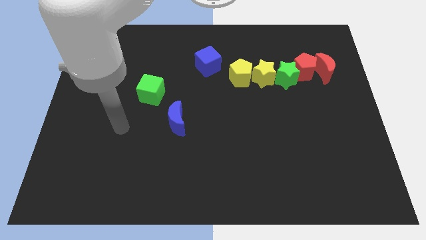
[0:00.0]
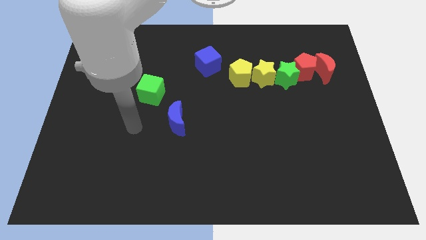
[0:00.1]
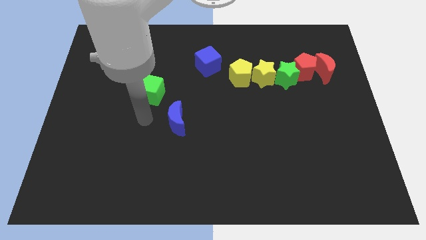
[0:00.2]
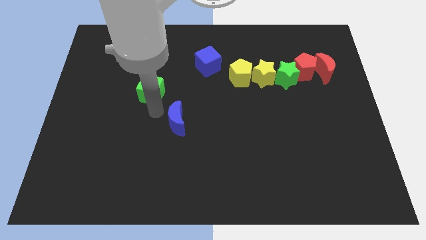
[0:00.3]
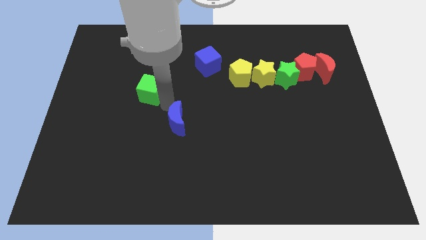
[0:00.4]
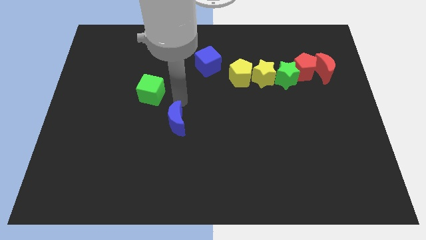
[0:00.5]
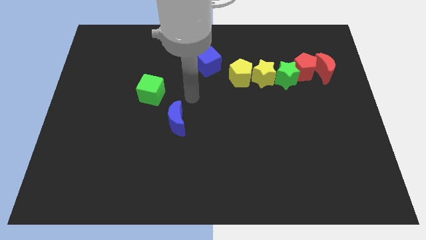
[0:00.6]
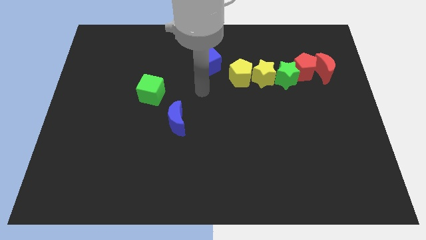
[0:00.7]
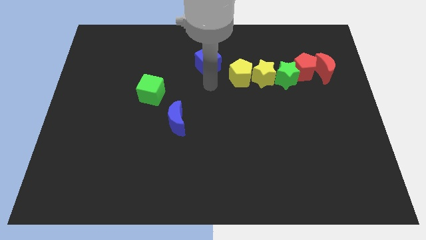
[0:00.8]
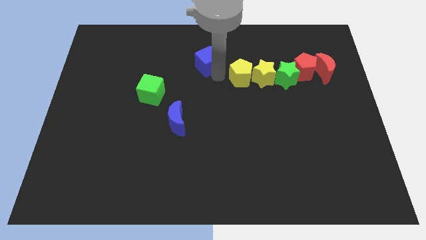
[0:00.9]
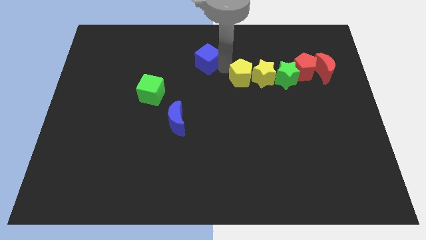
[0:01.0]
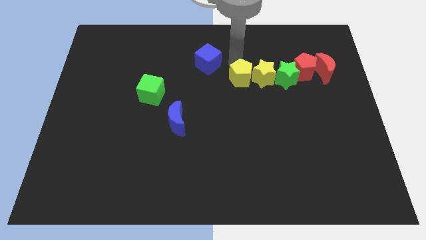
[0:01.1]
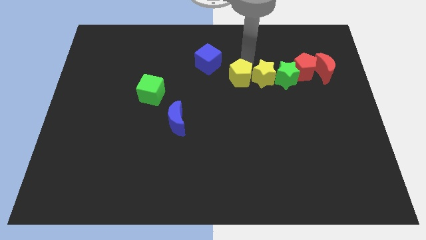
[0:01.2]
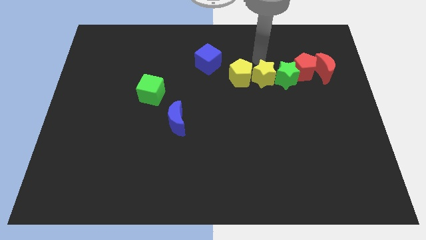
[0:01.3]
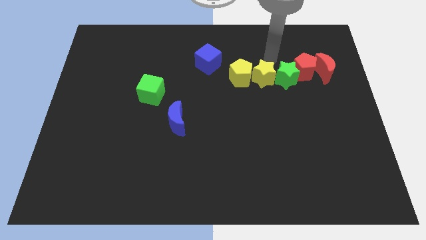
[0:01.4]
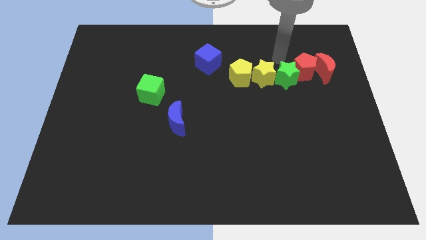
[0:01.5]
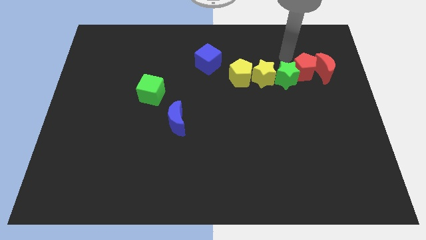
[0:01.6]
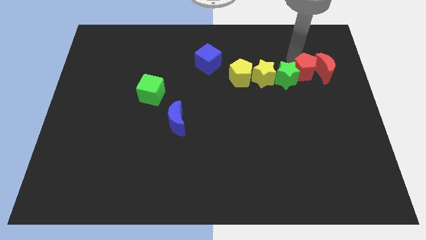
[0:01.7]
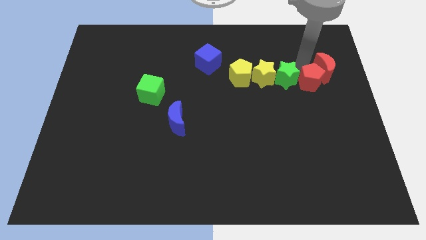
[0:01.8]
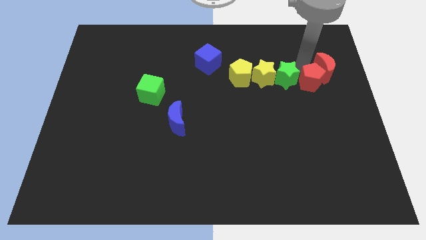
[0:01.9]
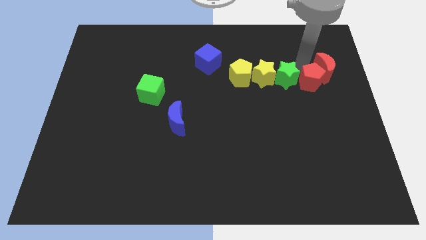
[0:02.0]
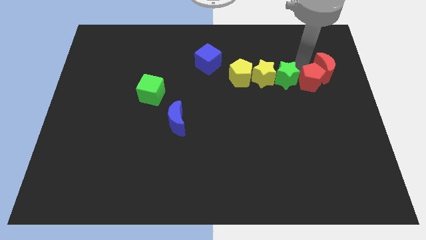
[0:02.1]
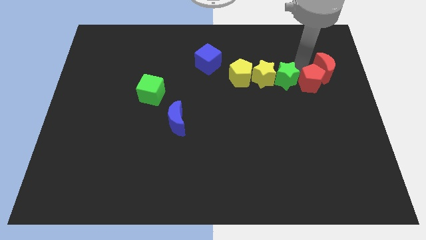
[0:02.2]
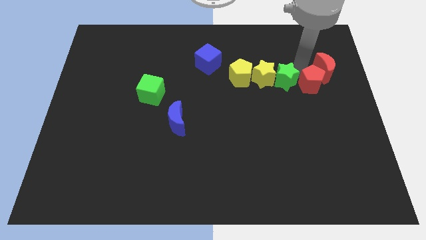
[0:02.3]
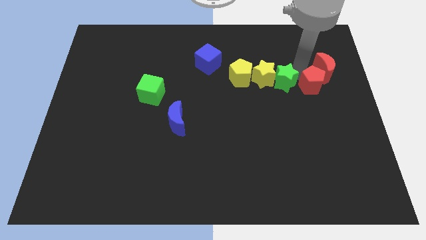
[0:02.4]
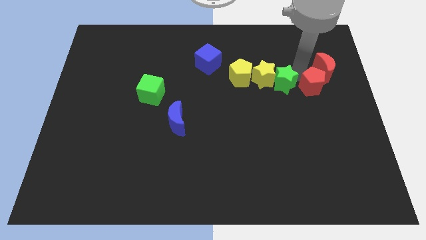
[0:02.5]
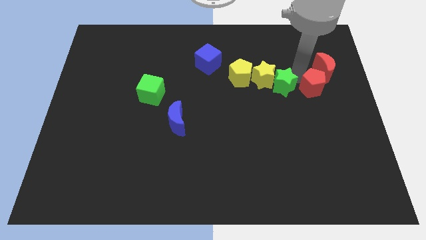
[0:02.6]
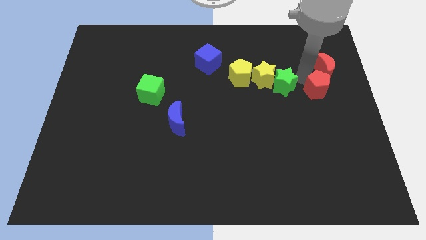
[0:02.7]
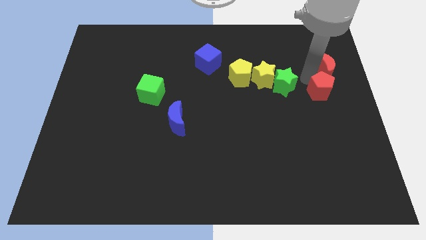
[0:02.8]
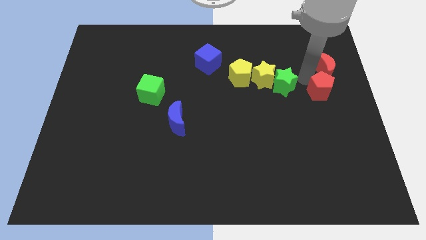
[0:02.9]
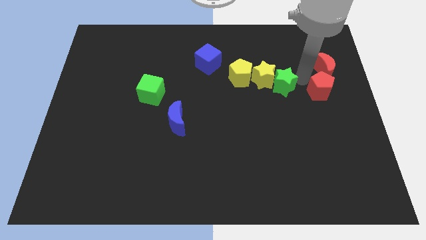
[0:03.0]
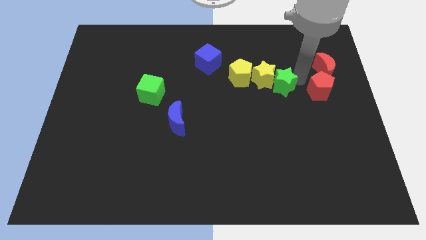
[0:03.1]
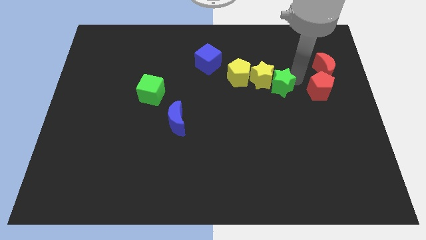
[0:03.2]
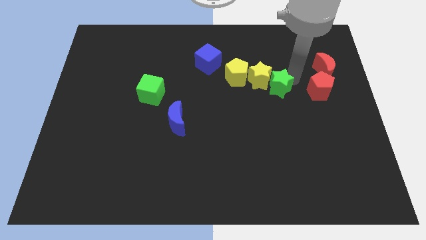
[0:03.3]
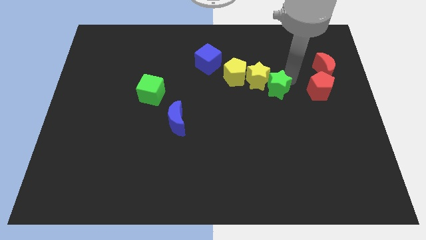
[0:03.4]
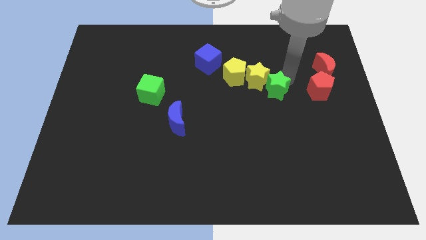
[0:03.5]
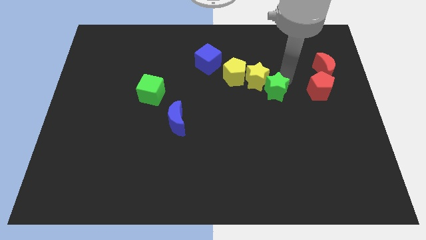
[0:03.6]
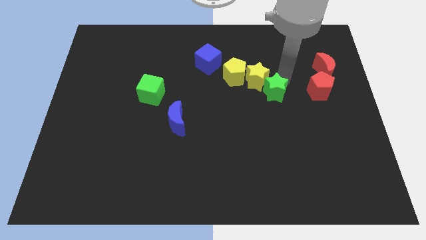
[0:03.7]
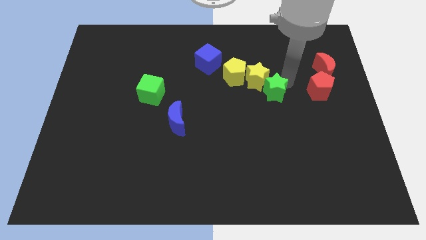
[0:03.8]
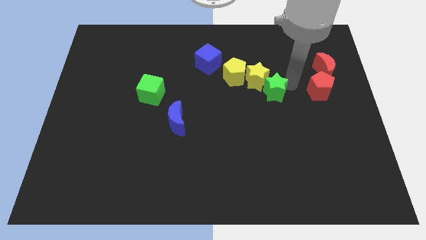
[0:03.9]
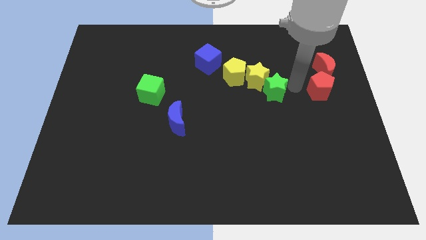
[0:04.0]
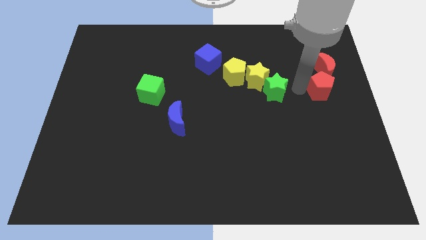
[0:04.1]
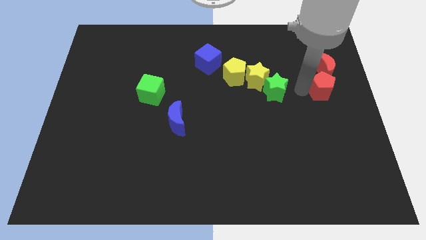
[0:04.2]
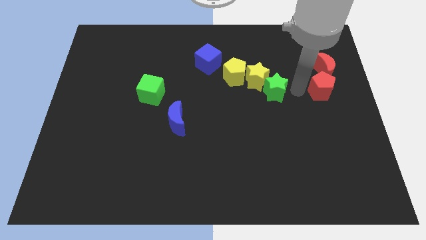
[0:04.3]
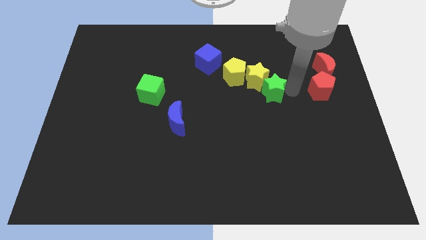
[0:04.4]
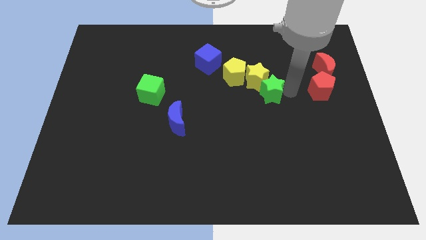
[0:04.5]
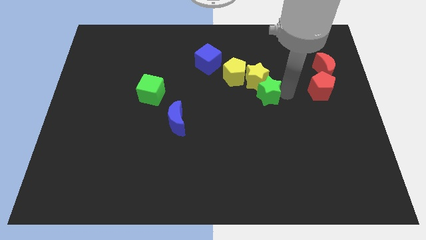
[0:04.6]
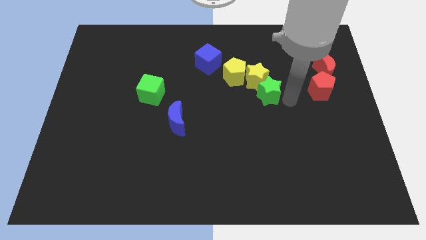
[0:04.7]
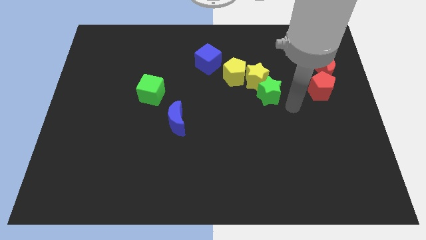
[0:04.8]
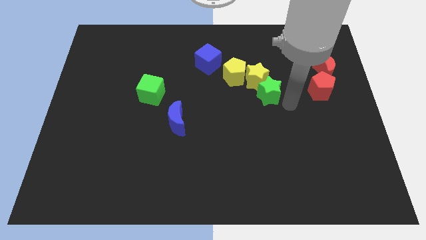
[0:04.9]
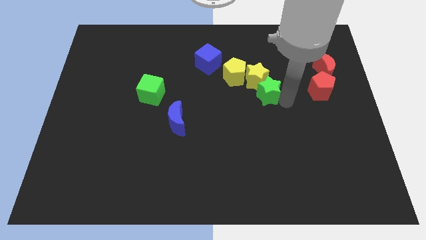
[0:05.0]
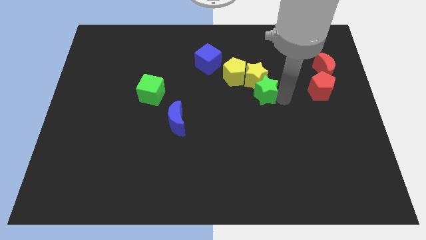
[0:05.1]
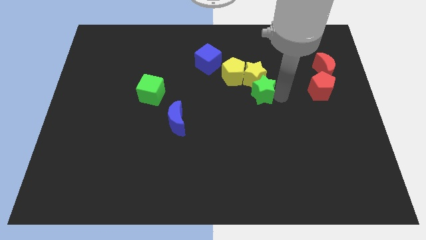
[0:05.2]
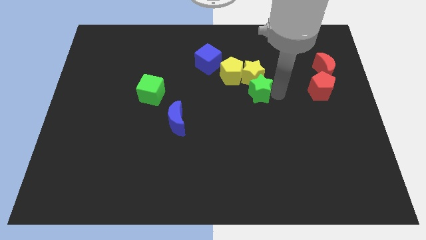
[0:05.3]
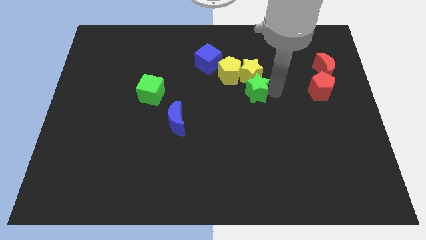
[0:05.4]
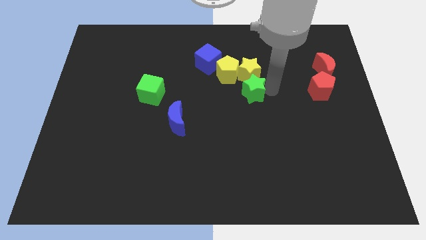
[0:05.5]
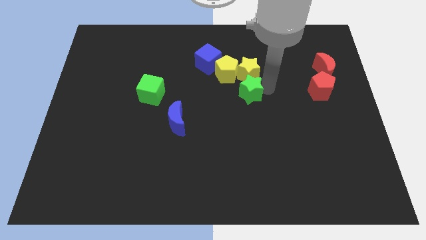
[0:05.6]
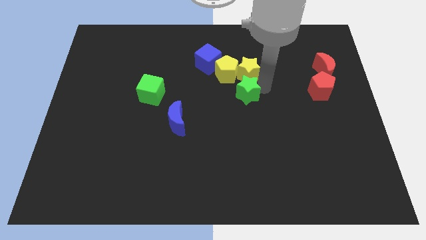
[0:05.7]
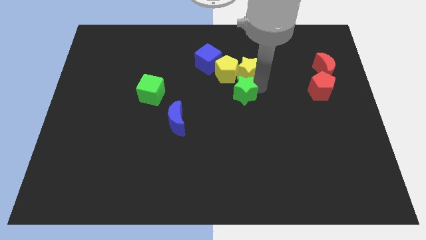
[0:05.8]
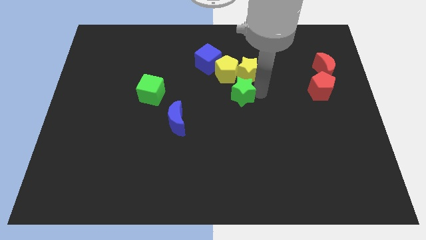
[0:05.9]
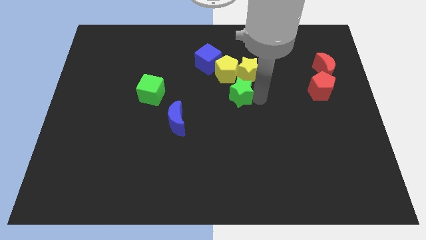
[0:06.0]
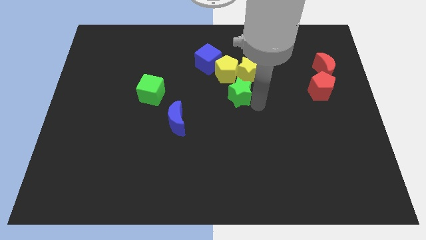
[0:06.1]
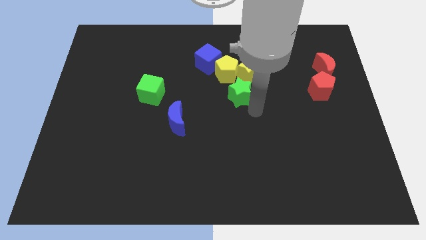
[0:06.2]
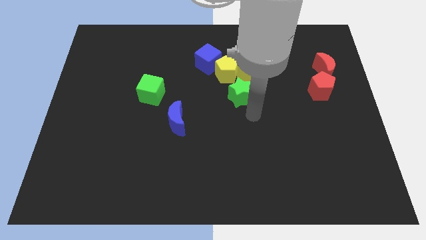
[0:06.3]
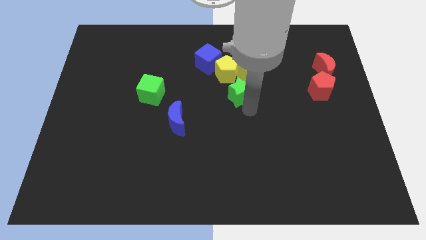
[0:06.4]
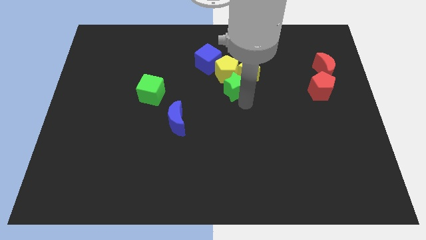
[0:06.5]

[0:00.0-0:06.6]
put the green star close to the yellow pentagon

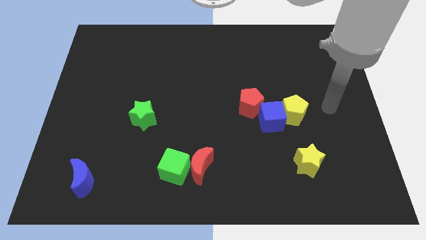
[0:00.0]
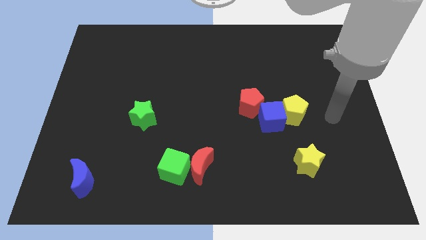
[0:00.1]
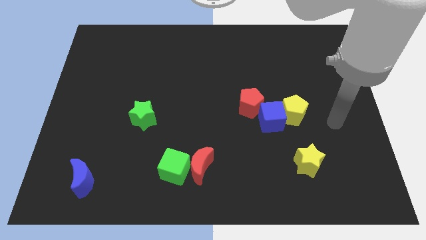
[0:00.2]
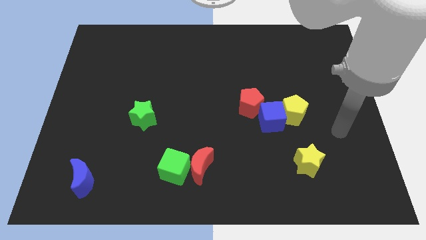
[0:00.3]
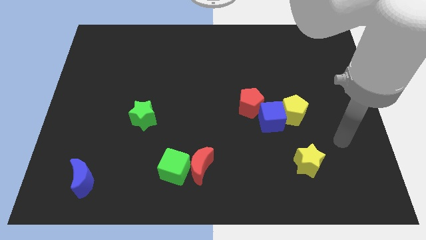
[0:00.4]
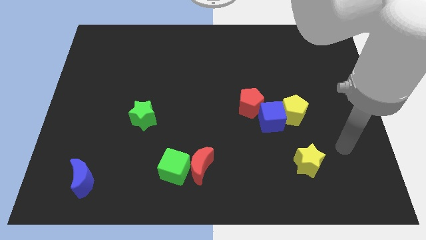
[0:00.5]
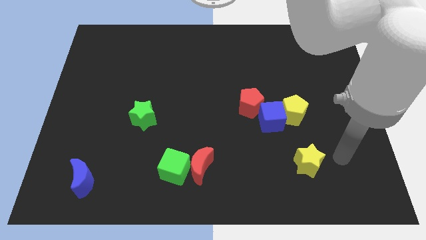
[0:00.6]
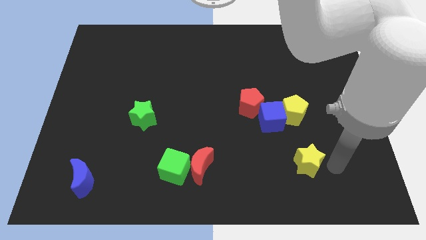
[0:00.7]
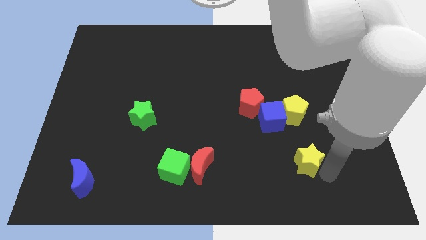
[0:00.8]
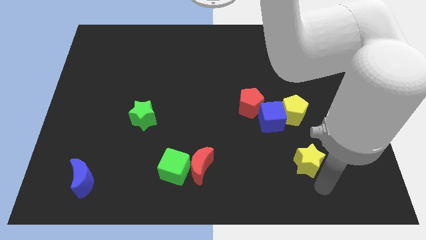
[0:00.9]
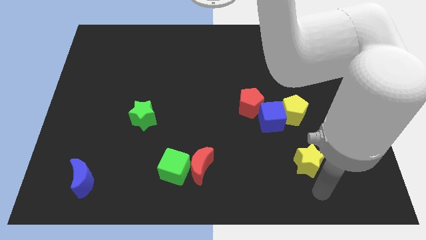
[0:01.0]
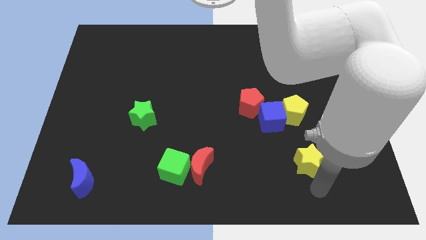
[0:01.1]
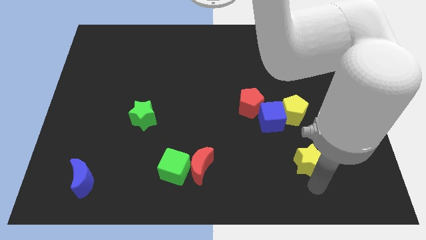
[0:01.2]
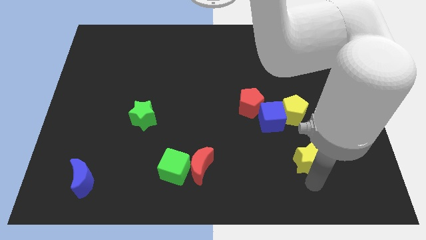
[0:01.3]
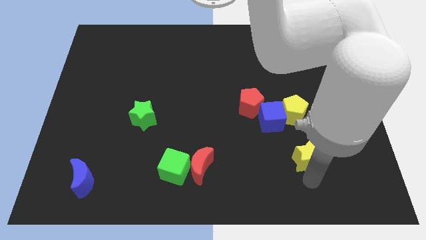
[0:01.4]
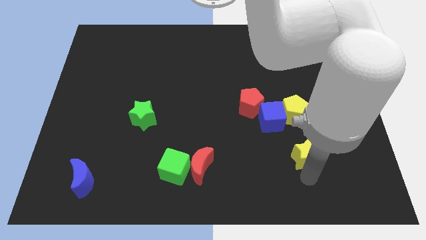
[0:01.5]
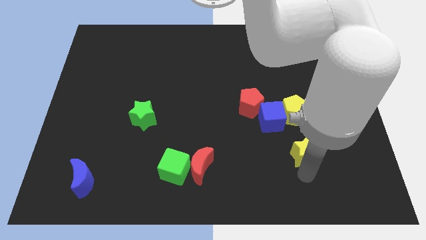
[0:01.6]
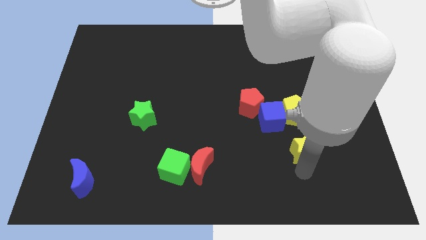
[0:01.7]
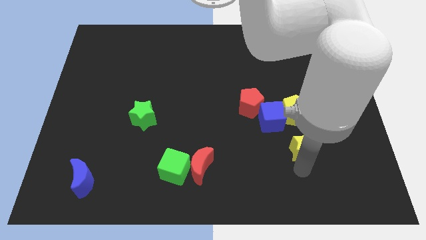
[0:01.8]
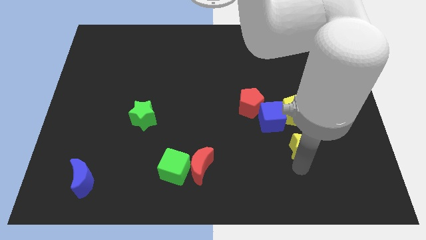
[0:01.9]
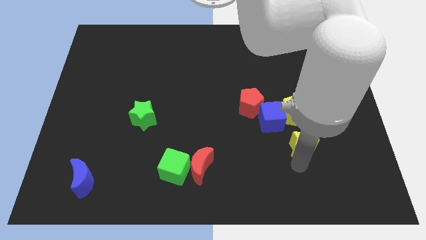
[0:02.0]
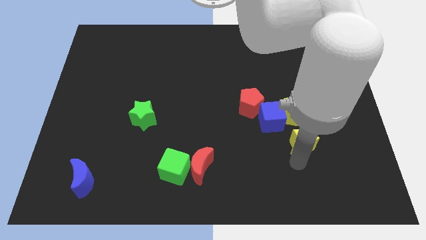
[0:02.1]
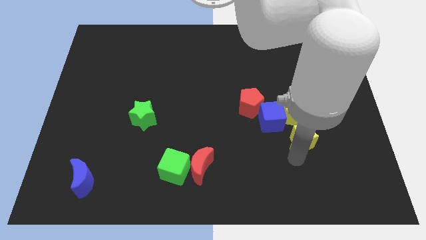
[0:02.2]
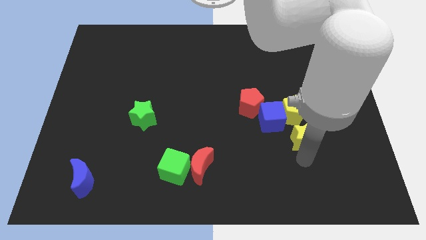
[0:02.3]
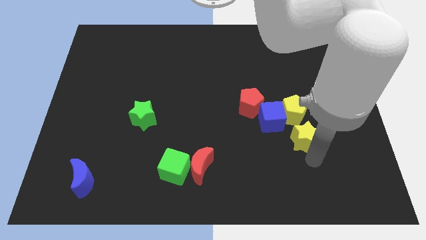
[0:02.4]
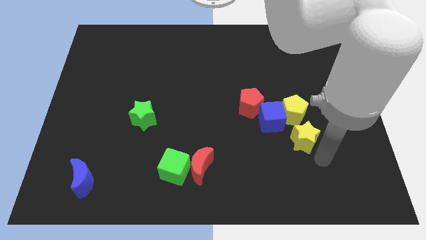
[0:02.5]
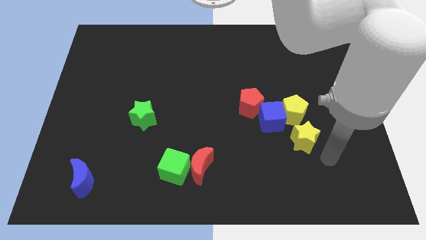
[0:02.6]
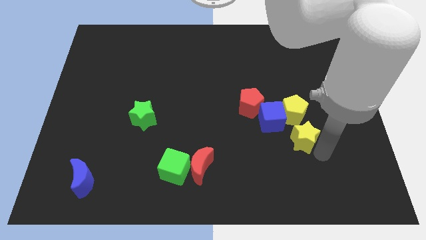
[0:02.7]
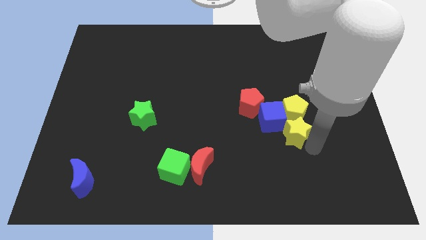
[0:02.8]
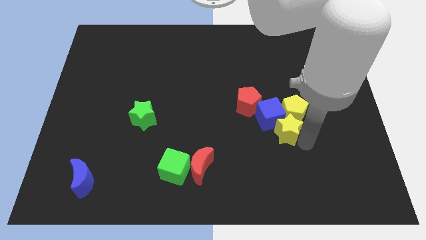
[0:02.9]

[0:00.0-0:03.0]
slide the yellow star towards the blue cube
